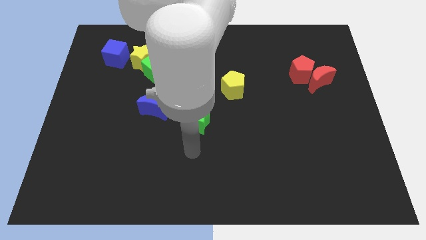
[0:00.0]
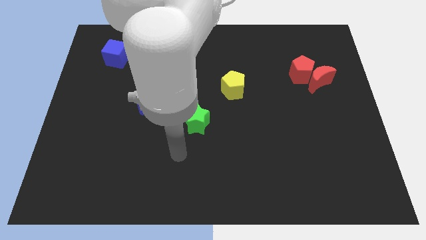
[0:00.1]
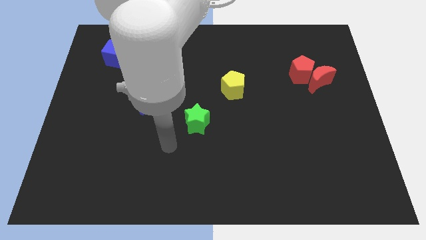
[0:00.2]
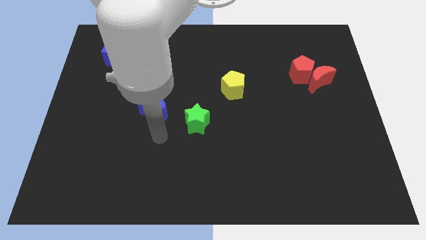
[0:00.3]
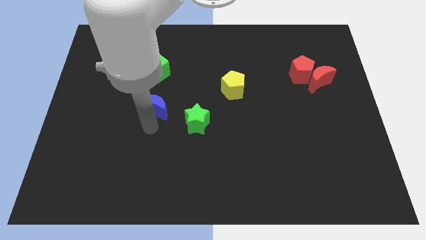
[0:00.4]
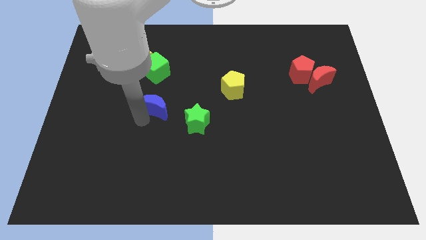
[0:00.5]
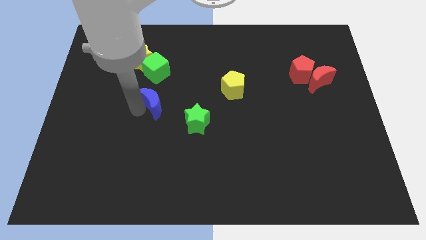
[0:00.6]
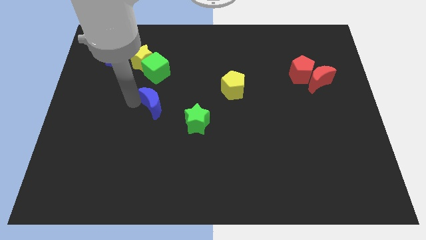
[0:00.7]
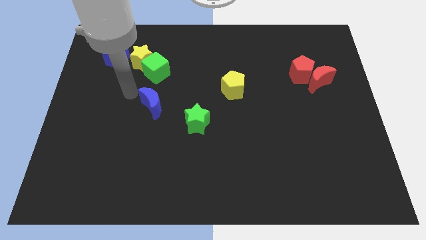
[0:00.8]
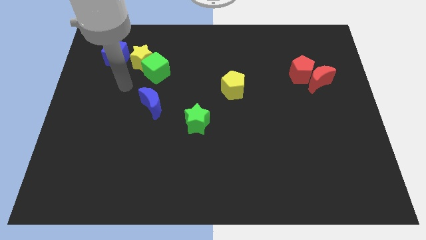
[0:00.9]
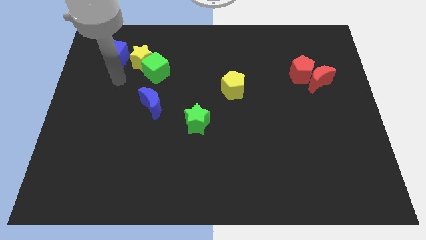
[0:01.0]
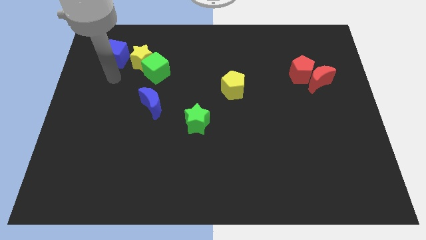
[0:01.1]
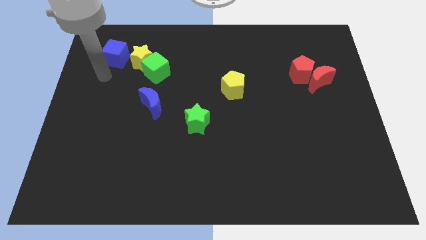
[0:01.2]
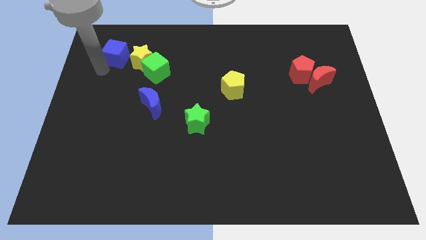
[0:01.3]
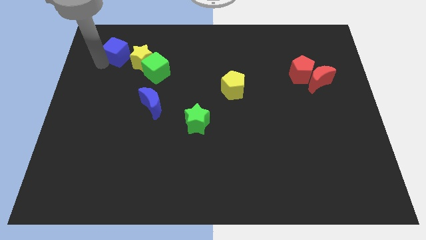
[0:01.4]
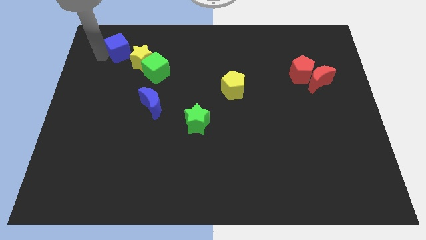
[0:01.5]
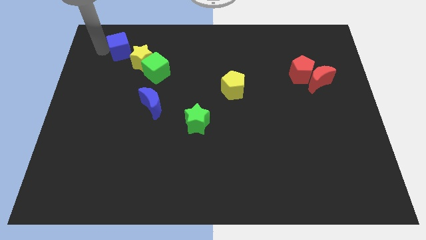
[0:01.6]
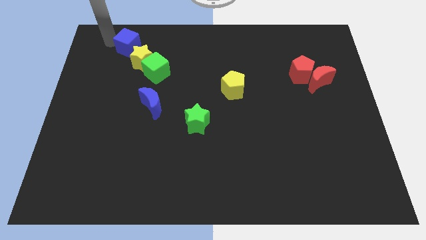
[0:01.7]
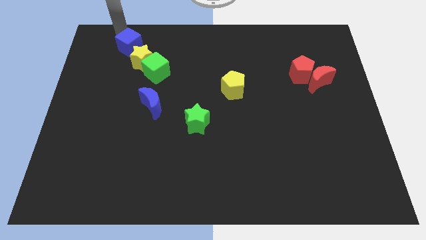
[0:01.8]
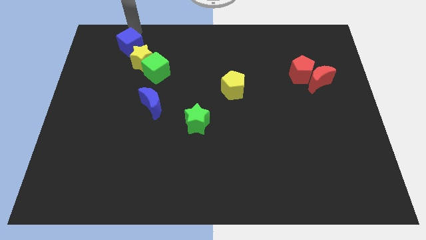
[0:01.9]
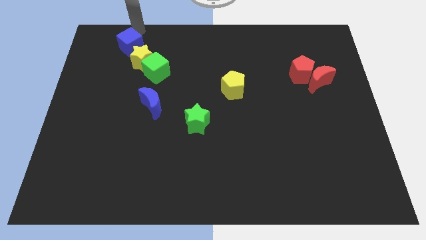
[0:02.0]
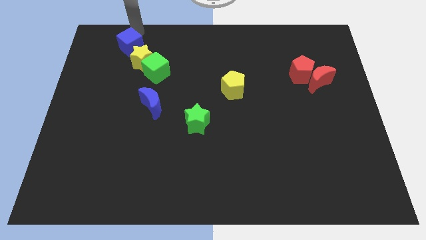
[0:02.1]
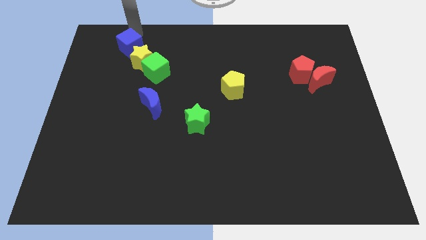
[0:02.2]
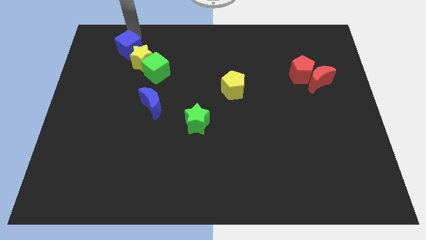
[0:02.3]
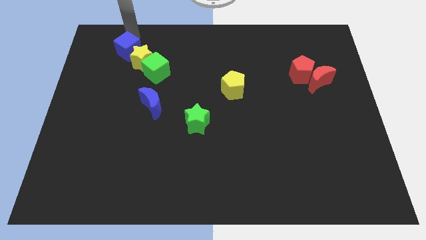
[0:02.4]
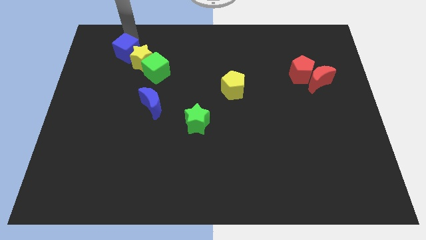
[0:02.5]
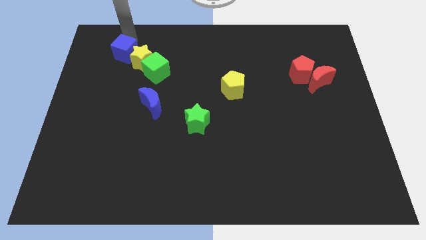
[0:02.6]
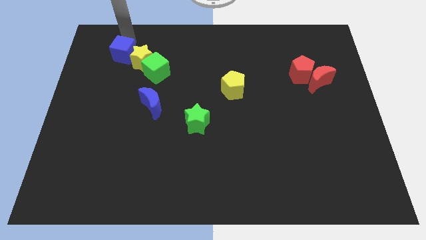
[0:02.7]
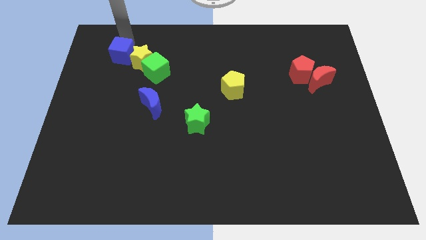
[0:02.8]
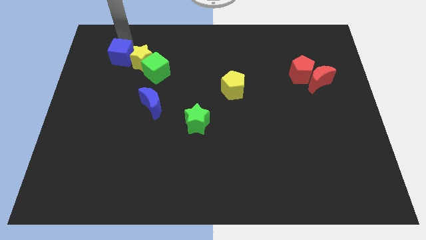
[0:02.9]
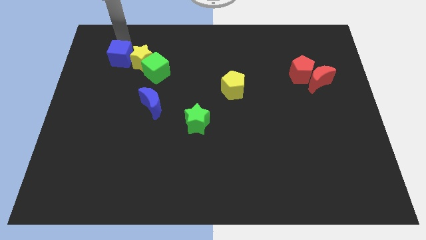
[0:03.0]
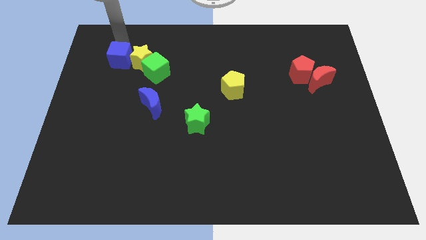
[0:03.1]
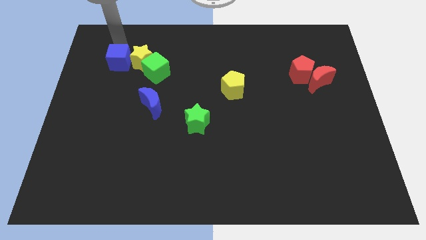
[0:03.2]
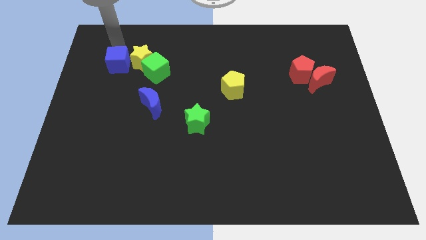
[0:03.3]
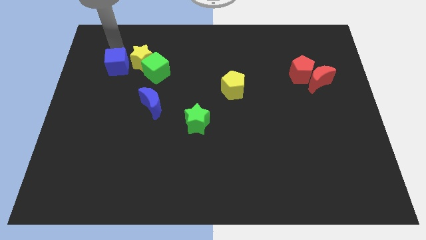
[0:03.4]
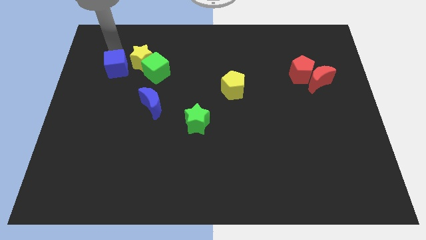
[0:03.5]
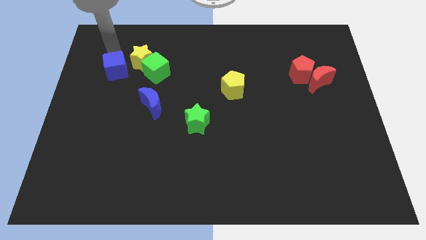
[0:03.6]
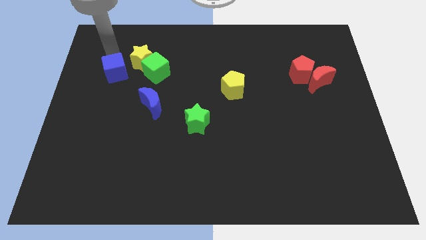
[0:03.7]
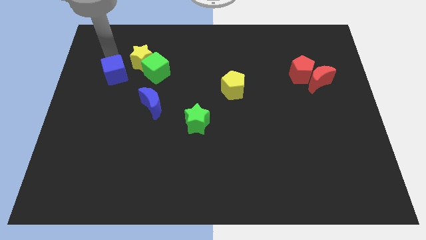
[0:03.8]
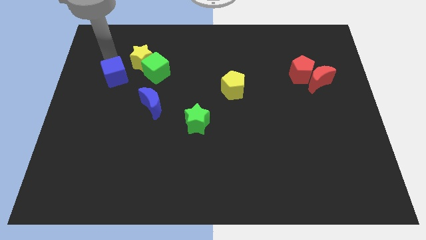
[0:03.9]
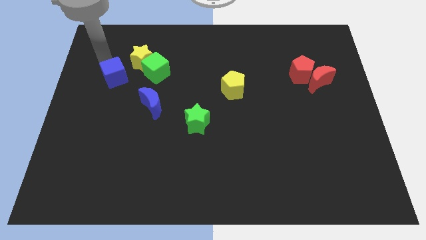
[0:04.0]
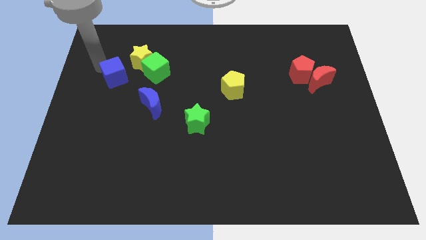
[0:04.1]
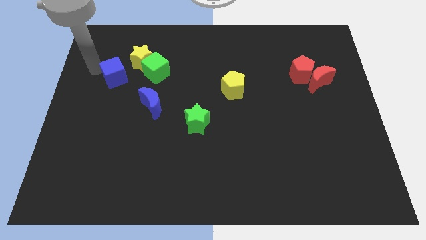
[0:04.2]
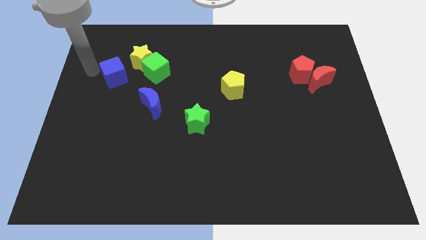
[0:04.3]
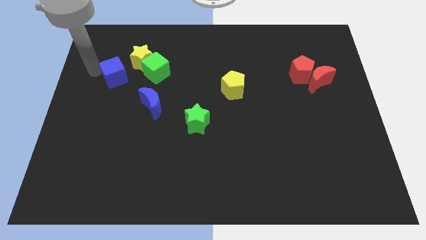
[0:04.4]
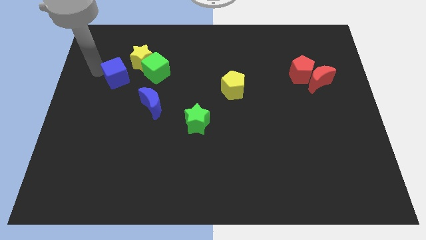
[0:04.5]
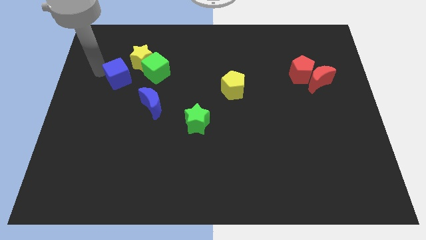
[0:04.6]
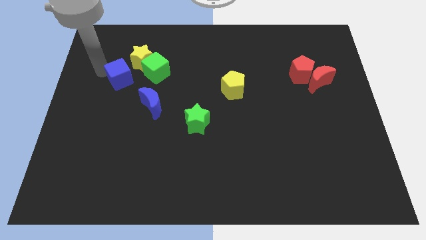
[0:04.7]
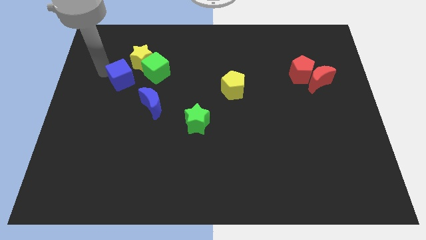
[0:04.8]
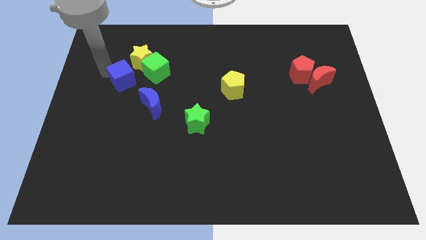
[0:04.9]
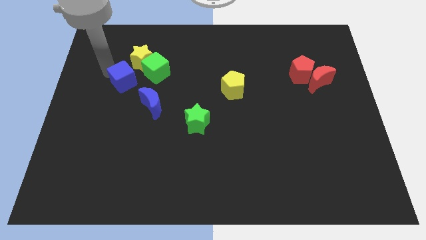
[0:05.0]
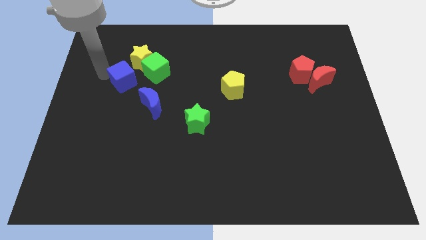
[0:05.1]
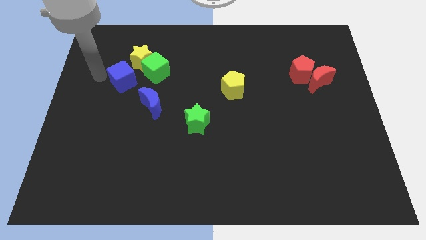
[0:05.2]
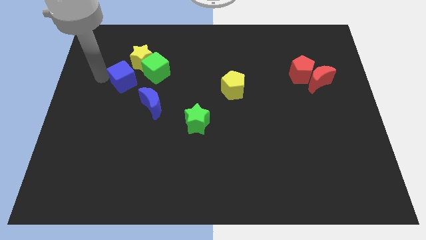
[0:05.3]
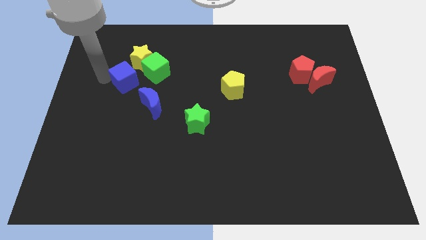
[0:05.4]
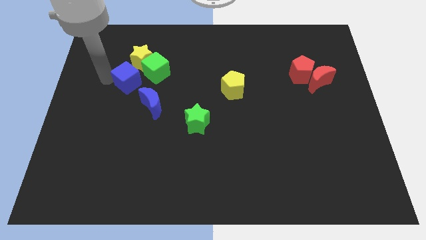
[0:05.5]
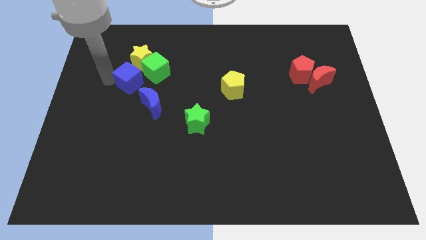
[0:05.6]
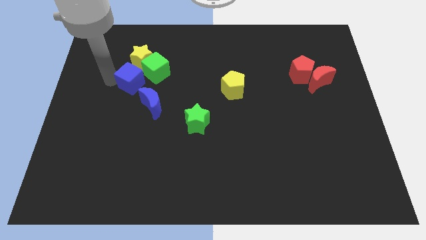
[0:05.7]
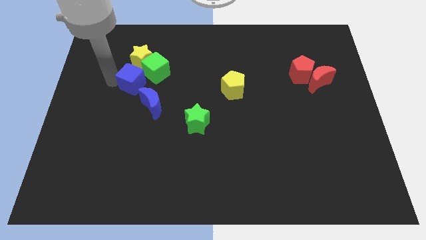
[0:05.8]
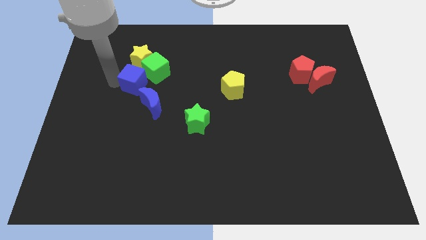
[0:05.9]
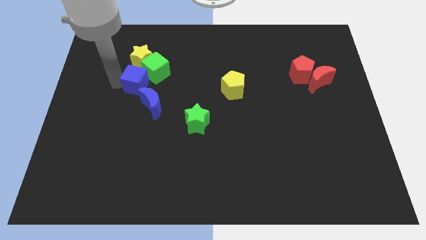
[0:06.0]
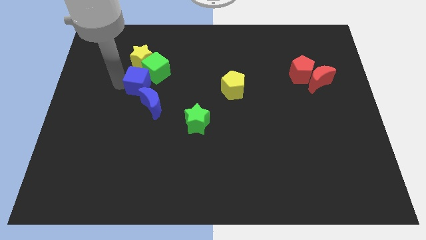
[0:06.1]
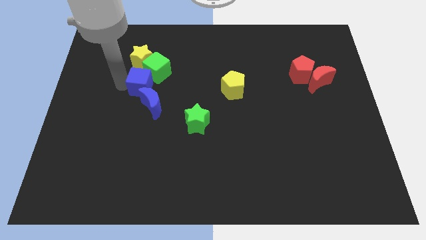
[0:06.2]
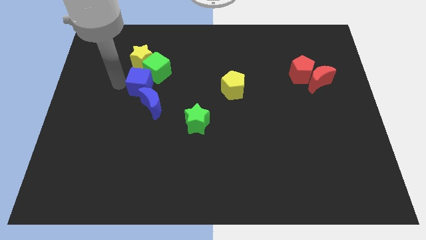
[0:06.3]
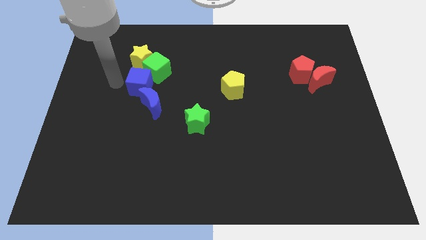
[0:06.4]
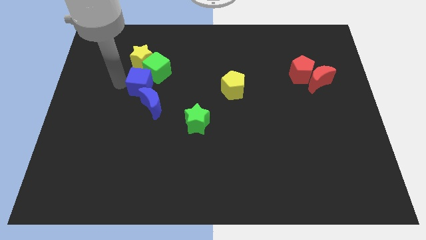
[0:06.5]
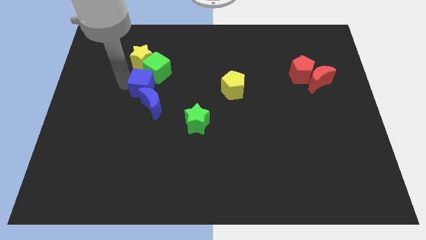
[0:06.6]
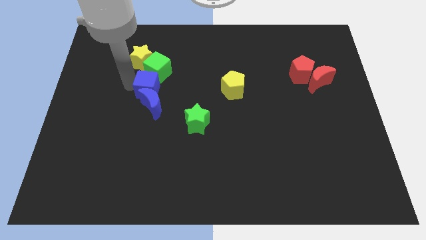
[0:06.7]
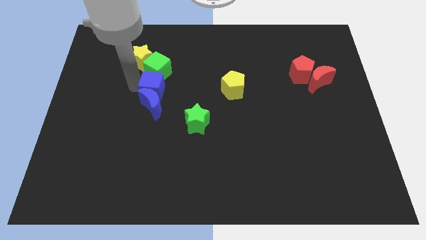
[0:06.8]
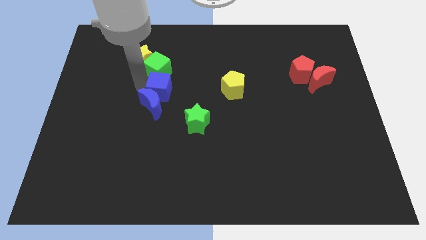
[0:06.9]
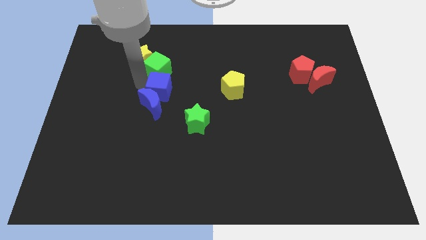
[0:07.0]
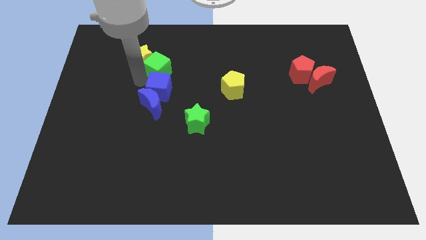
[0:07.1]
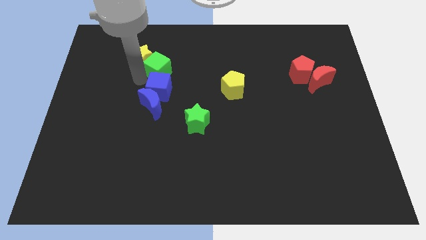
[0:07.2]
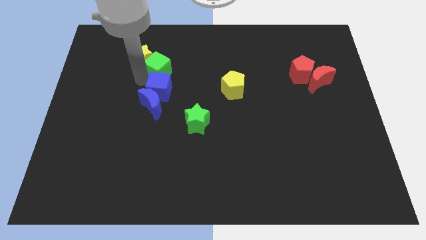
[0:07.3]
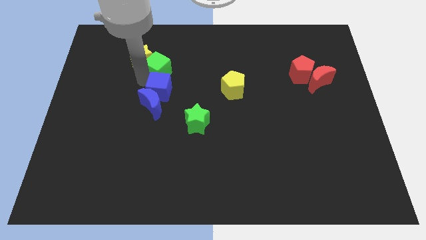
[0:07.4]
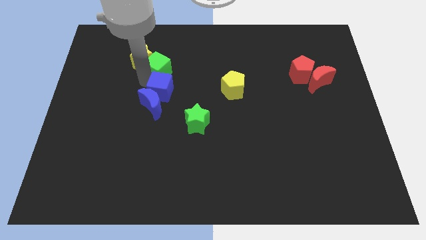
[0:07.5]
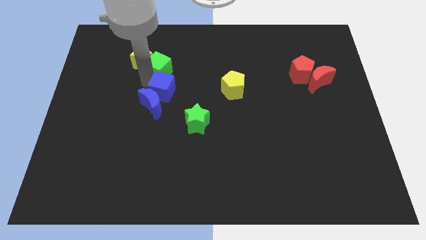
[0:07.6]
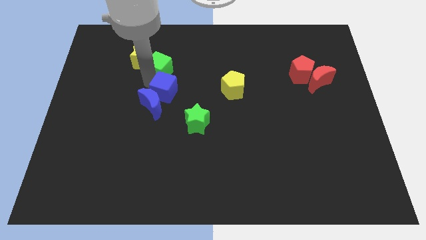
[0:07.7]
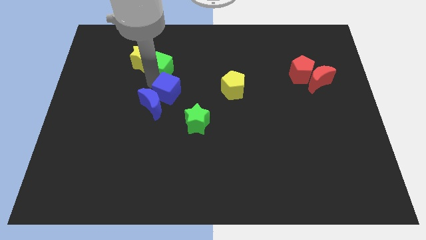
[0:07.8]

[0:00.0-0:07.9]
move the blue cube right of the blue moon
